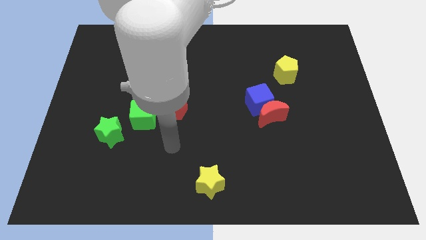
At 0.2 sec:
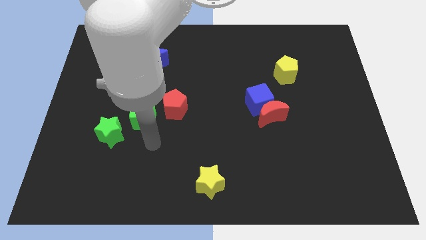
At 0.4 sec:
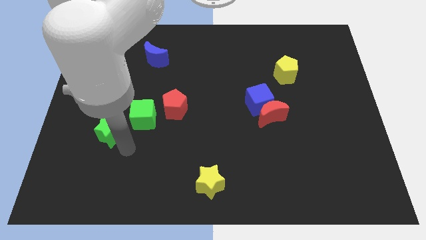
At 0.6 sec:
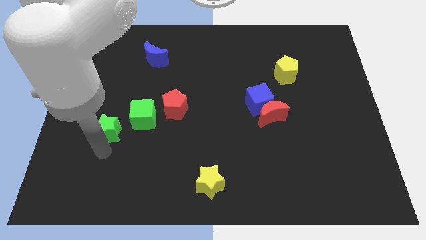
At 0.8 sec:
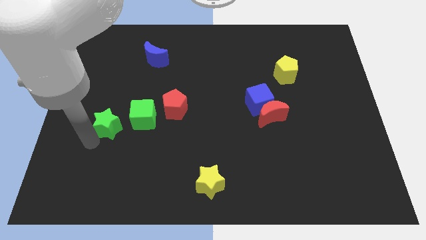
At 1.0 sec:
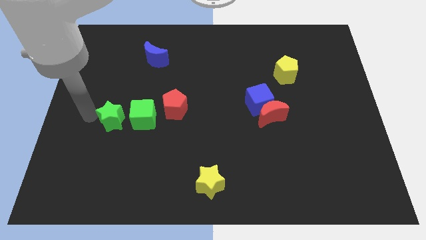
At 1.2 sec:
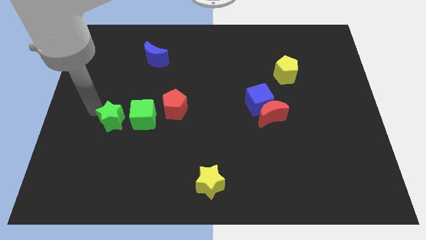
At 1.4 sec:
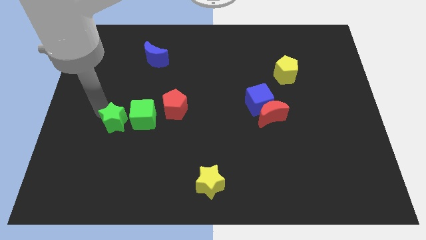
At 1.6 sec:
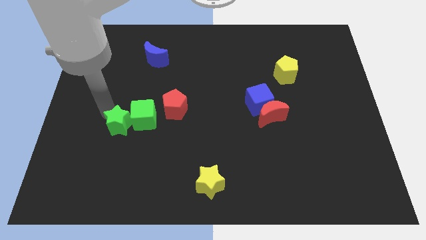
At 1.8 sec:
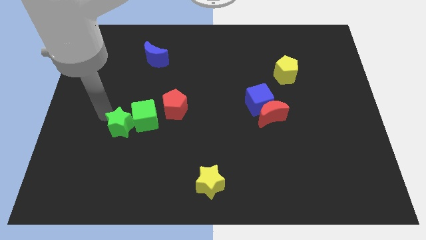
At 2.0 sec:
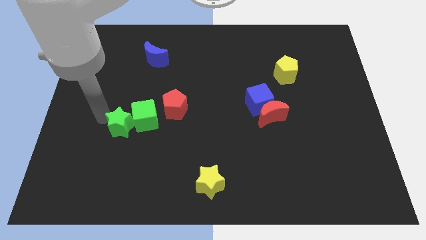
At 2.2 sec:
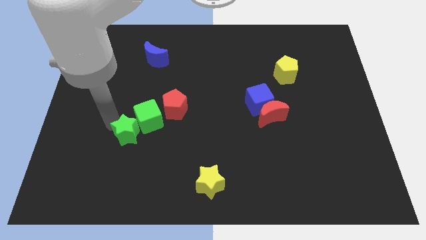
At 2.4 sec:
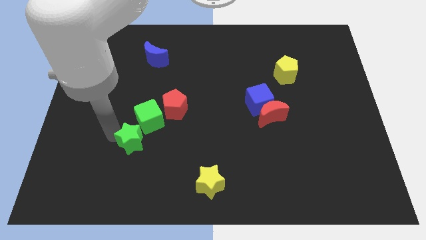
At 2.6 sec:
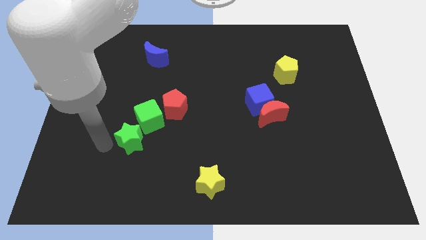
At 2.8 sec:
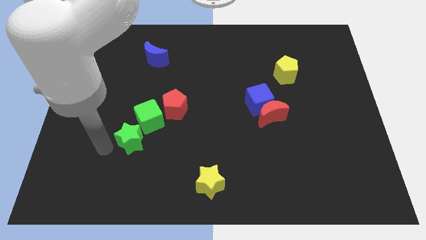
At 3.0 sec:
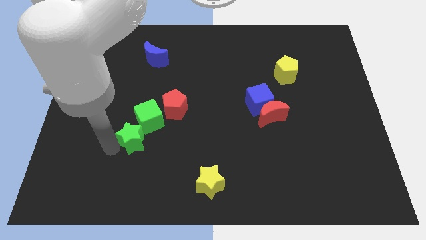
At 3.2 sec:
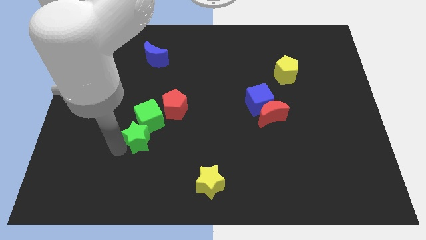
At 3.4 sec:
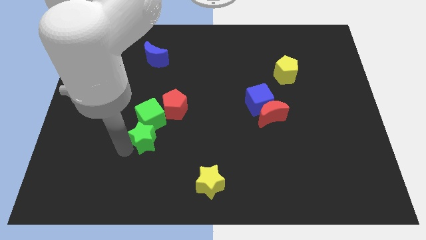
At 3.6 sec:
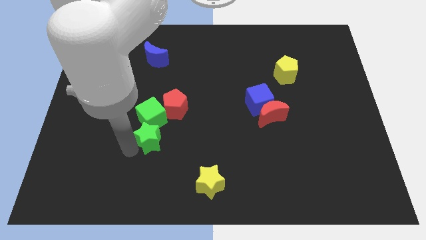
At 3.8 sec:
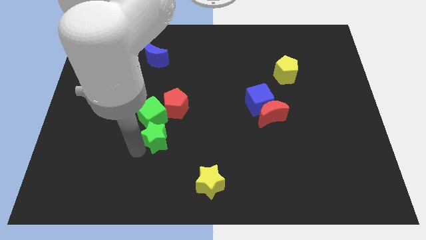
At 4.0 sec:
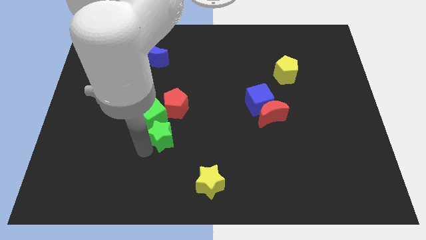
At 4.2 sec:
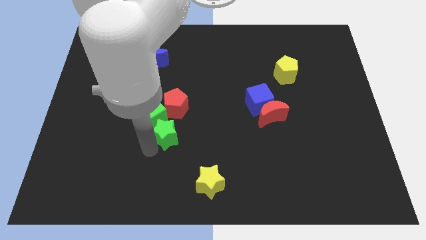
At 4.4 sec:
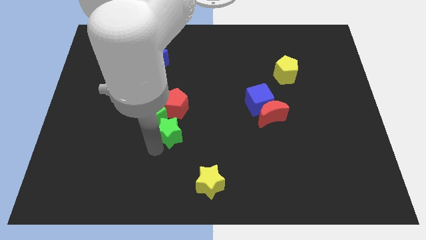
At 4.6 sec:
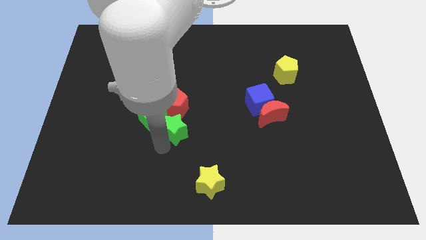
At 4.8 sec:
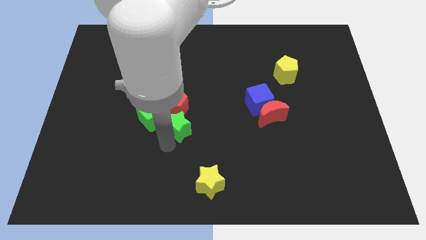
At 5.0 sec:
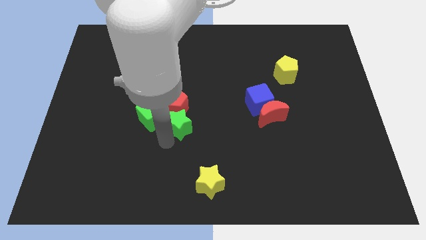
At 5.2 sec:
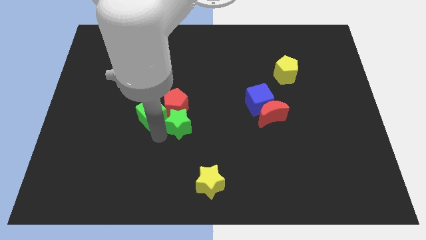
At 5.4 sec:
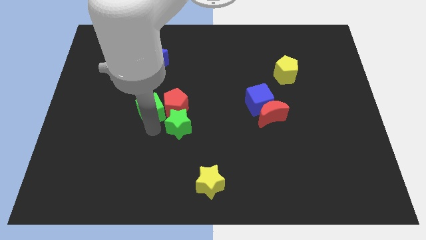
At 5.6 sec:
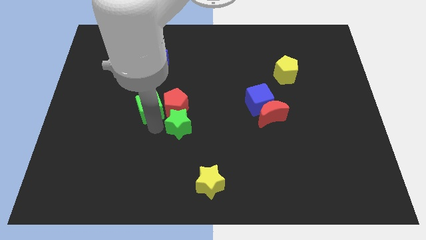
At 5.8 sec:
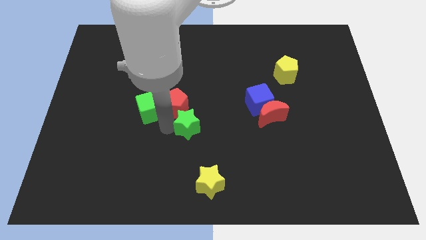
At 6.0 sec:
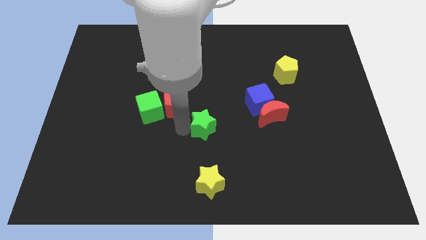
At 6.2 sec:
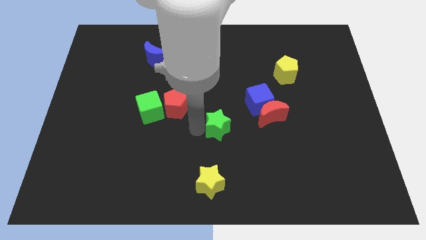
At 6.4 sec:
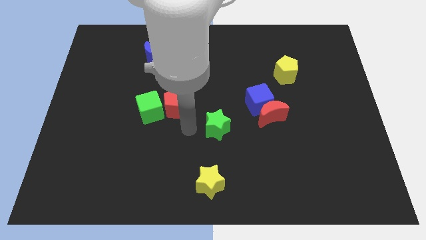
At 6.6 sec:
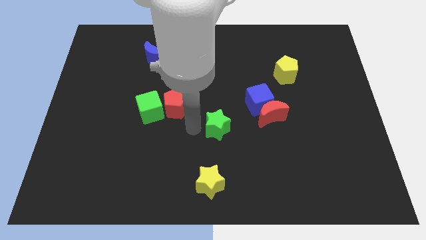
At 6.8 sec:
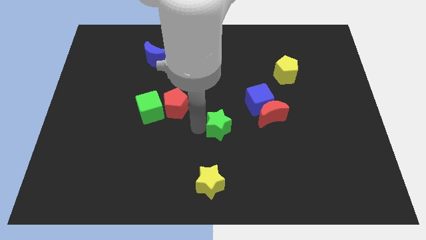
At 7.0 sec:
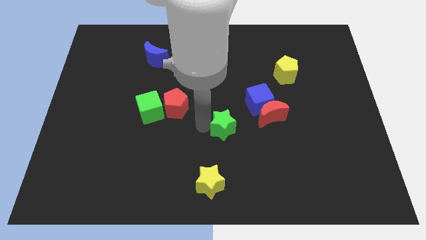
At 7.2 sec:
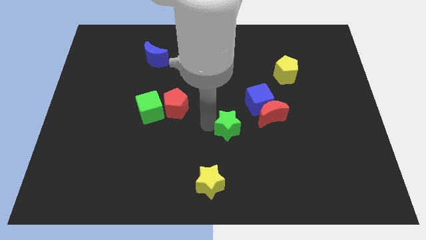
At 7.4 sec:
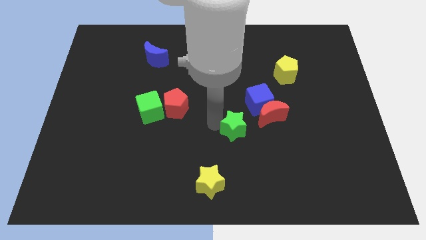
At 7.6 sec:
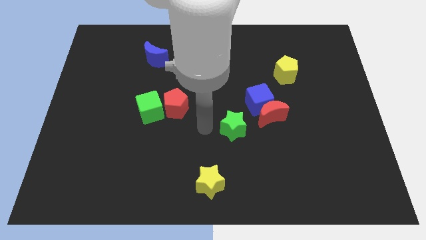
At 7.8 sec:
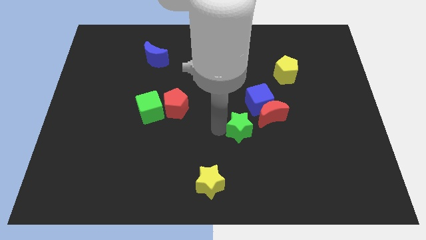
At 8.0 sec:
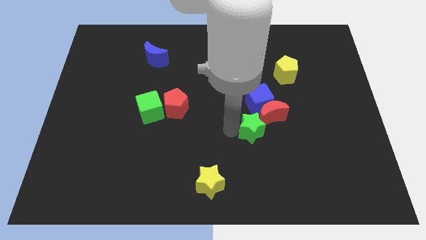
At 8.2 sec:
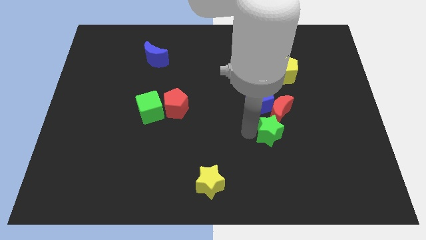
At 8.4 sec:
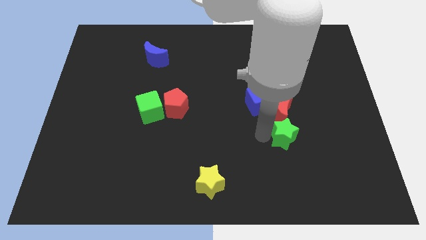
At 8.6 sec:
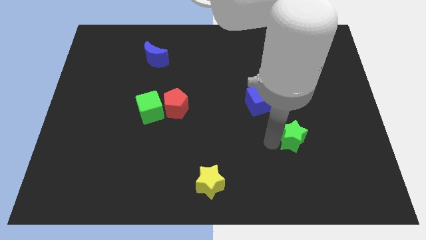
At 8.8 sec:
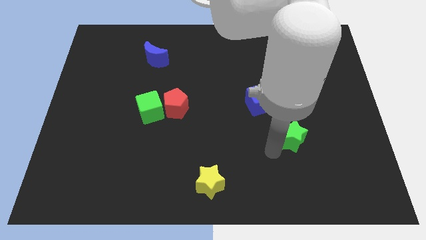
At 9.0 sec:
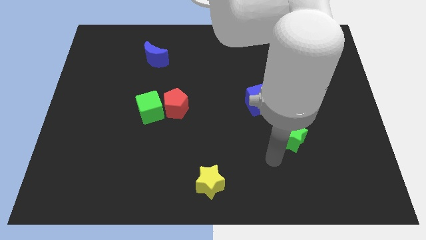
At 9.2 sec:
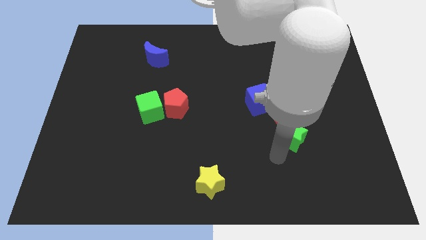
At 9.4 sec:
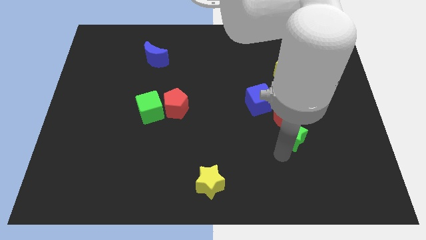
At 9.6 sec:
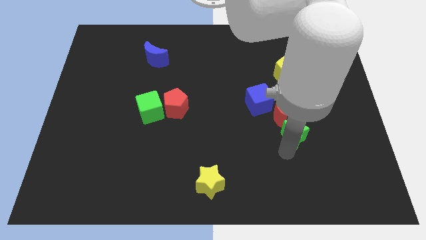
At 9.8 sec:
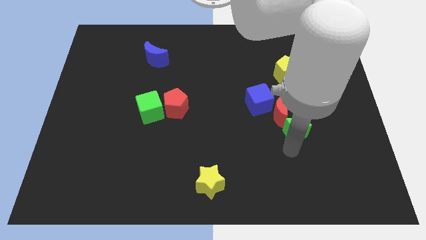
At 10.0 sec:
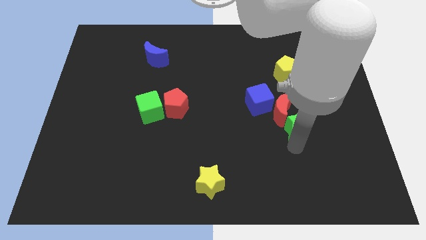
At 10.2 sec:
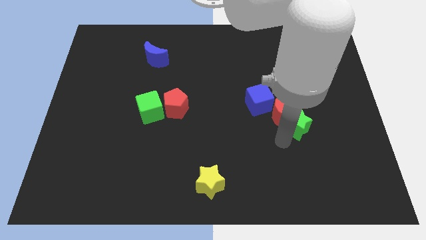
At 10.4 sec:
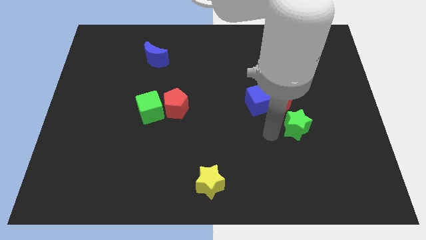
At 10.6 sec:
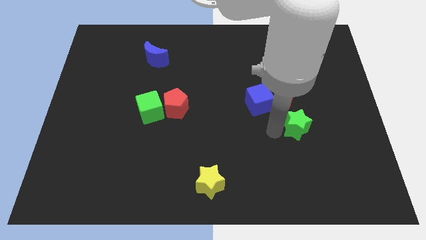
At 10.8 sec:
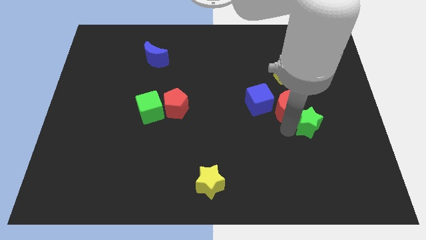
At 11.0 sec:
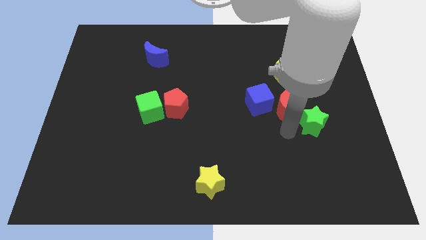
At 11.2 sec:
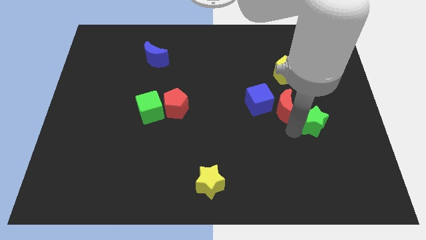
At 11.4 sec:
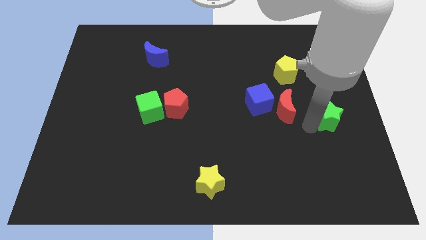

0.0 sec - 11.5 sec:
move the green star to the right side of the board
